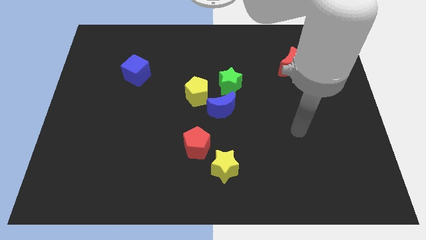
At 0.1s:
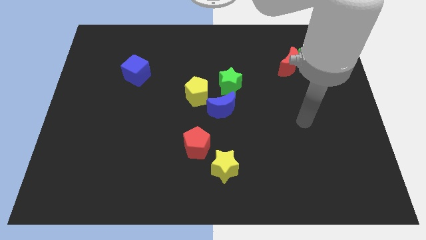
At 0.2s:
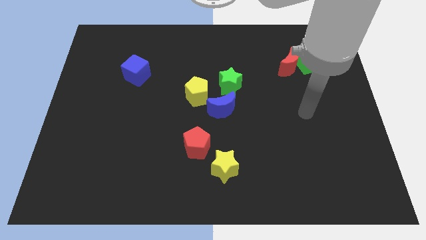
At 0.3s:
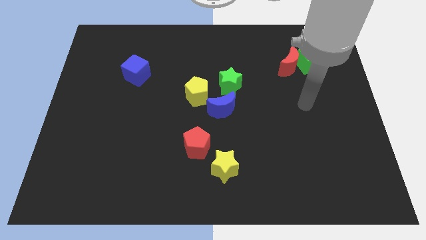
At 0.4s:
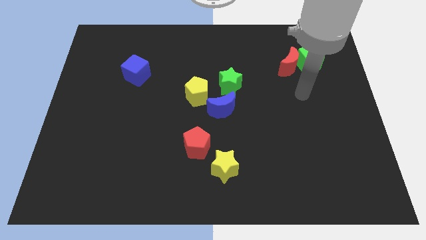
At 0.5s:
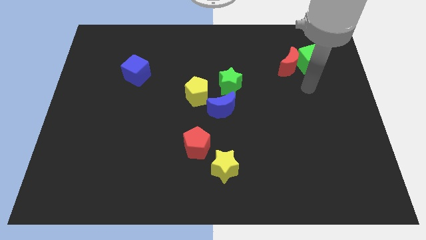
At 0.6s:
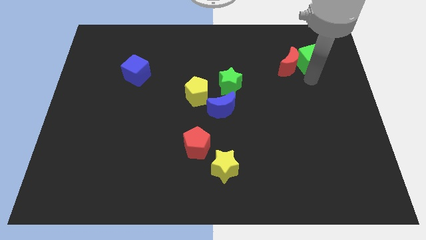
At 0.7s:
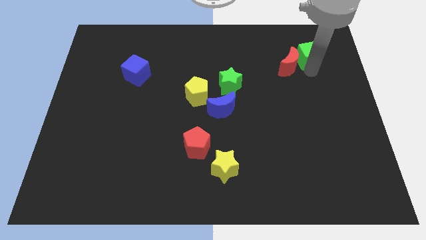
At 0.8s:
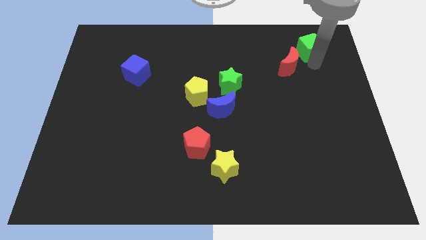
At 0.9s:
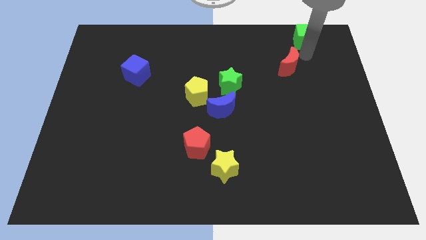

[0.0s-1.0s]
pull the red moon apart from the green cube

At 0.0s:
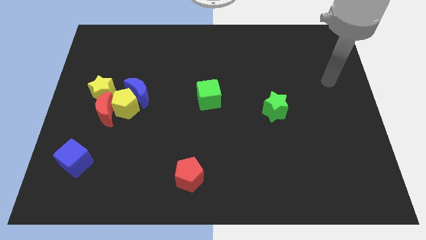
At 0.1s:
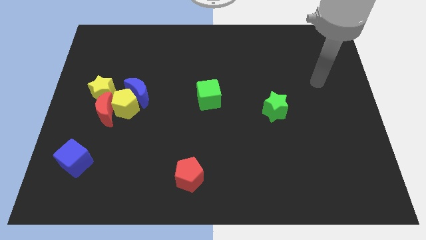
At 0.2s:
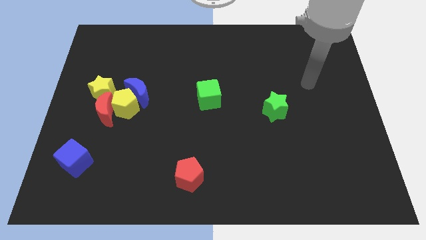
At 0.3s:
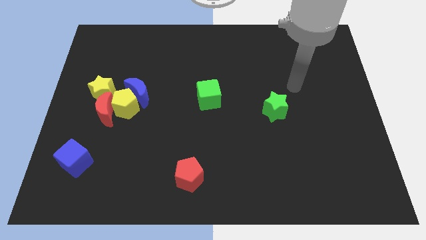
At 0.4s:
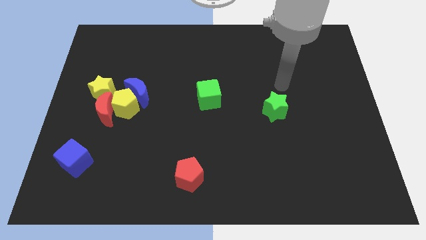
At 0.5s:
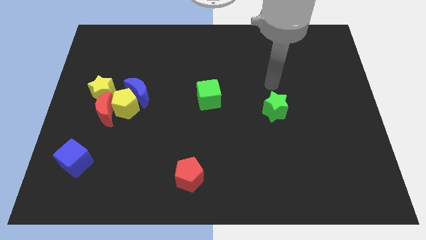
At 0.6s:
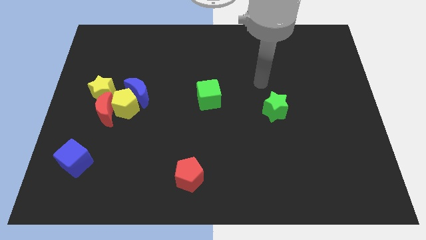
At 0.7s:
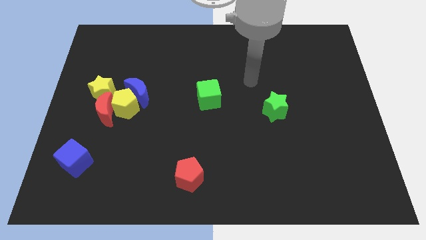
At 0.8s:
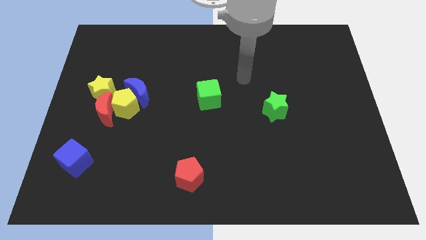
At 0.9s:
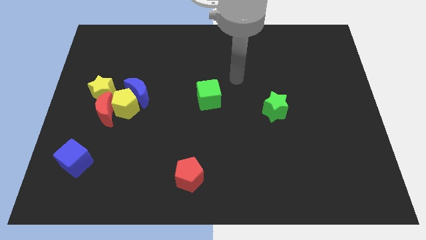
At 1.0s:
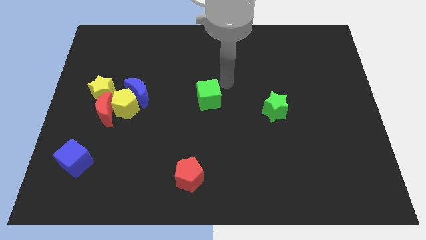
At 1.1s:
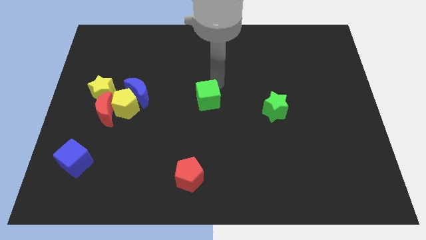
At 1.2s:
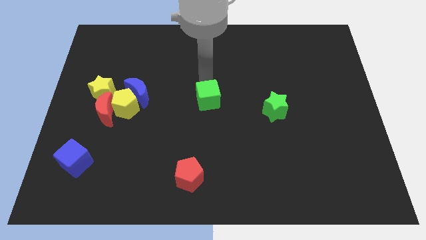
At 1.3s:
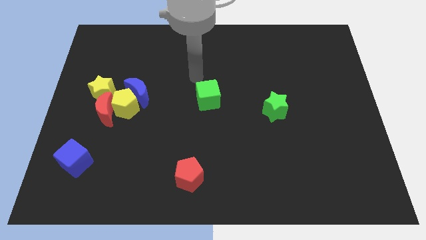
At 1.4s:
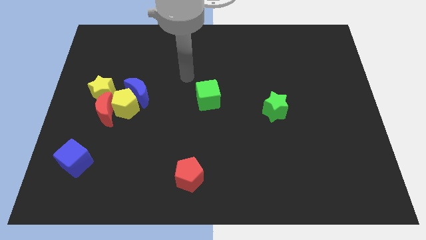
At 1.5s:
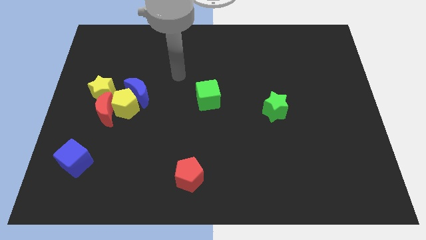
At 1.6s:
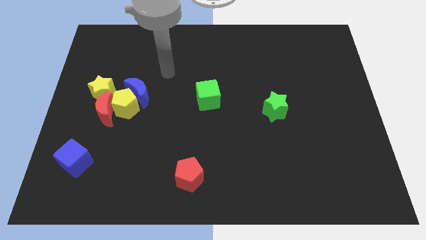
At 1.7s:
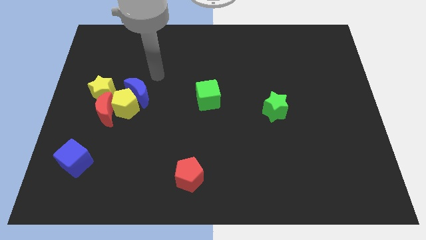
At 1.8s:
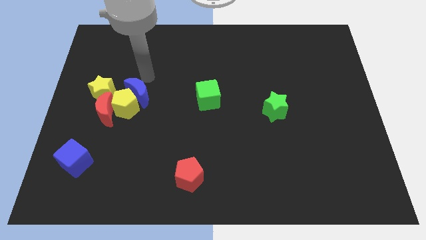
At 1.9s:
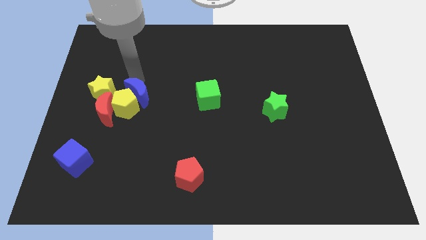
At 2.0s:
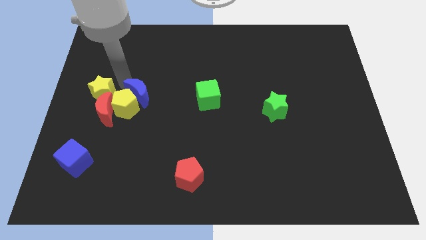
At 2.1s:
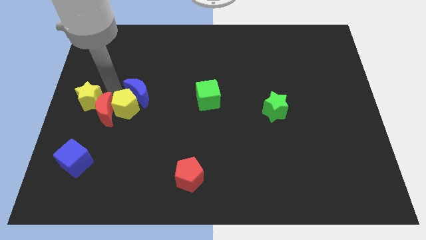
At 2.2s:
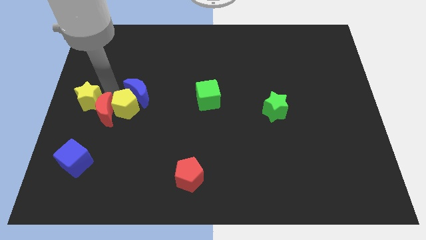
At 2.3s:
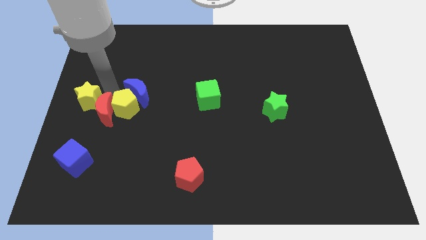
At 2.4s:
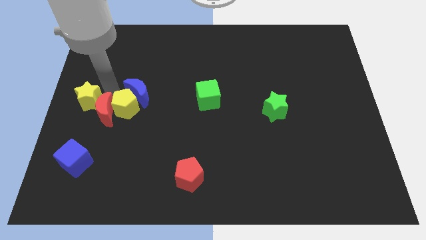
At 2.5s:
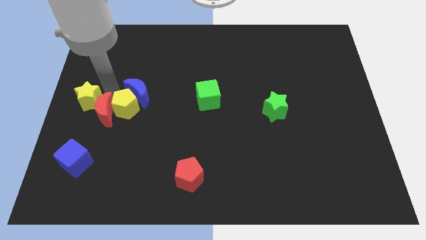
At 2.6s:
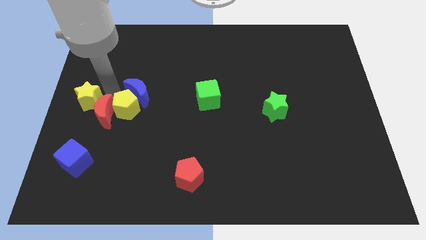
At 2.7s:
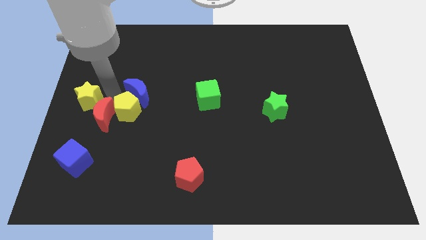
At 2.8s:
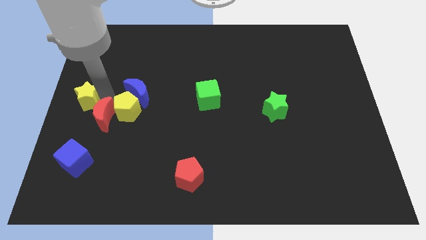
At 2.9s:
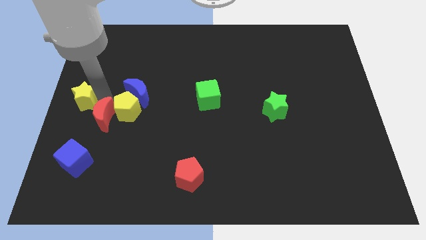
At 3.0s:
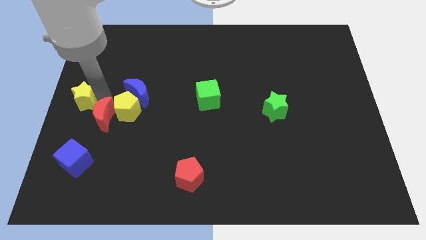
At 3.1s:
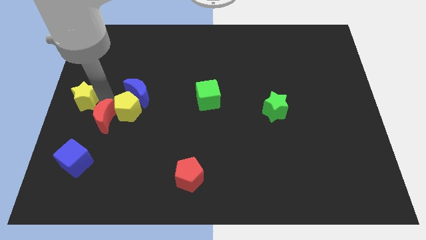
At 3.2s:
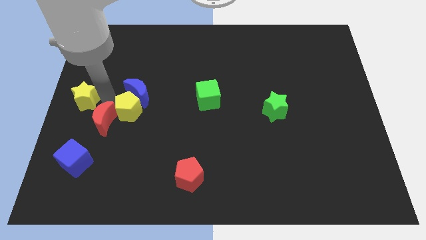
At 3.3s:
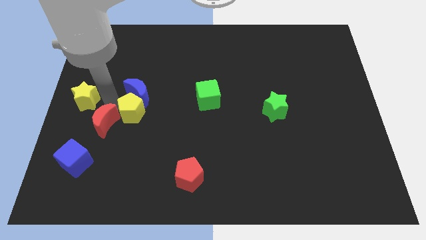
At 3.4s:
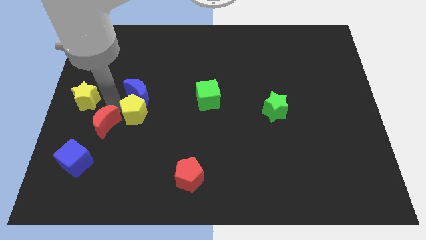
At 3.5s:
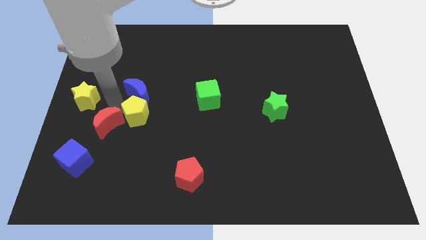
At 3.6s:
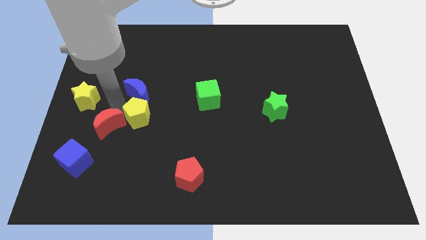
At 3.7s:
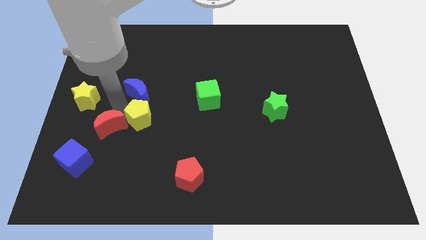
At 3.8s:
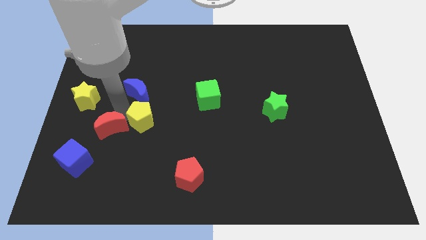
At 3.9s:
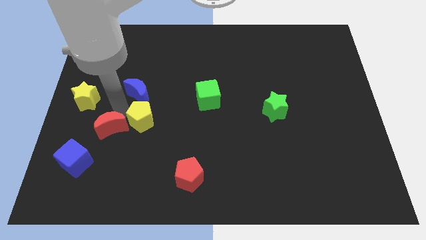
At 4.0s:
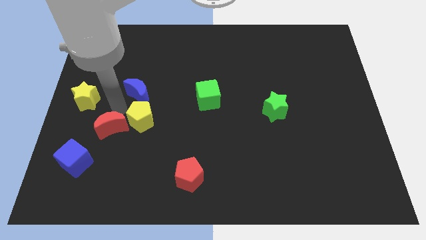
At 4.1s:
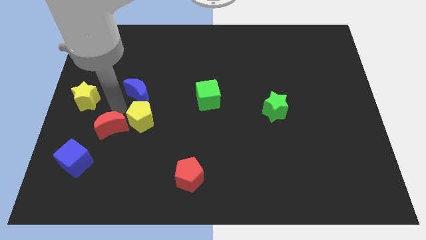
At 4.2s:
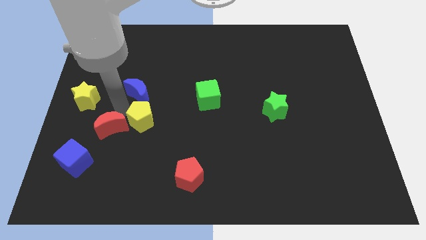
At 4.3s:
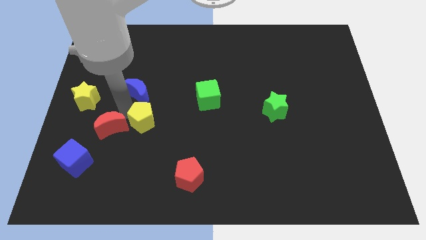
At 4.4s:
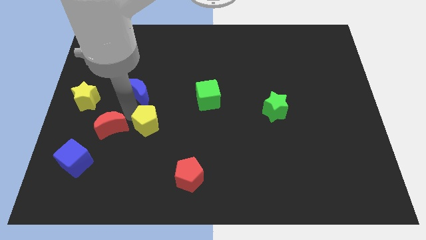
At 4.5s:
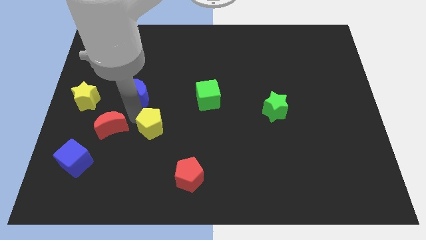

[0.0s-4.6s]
separate the yellow pentagon from the group

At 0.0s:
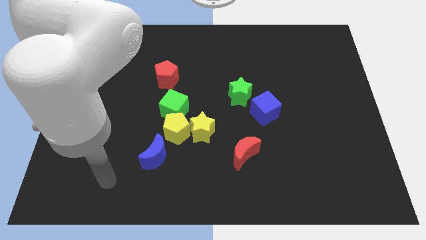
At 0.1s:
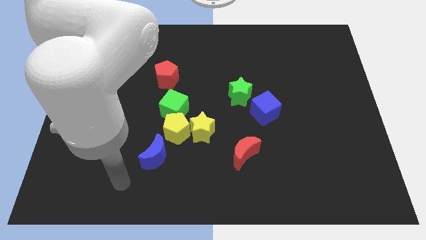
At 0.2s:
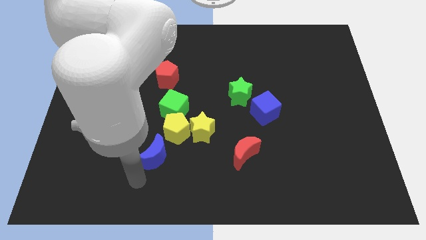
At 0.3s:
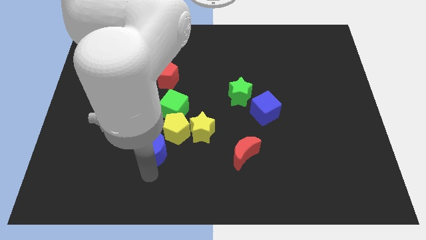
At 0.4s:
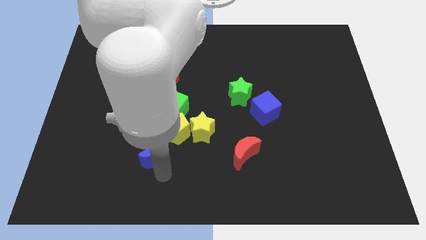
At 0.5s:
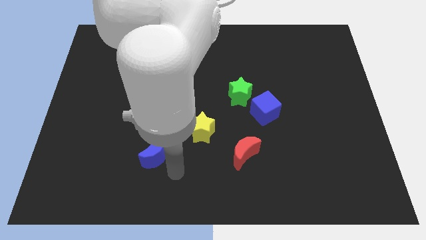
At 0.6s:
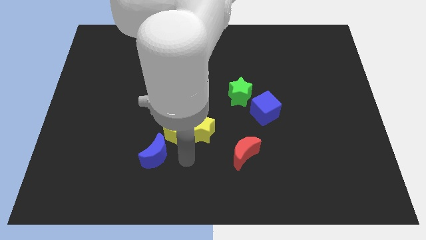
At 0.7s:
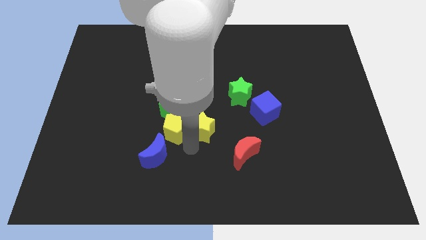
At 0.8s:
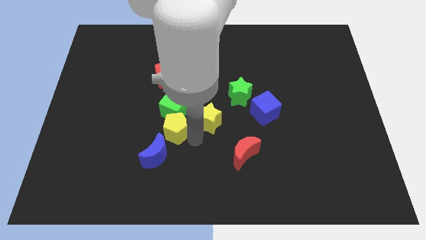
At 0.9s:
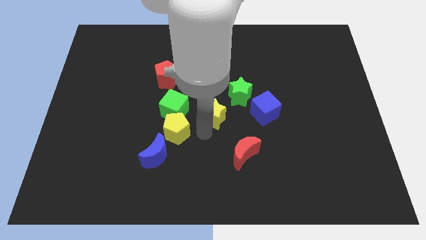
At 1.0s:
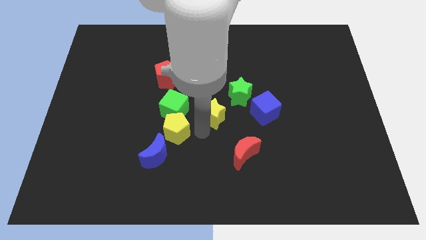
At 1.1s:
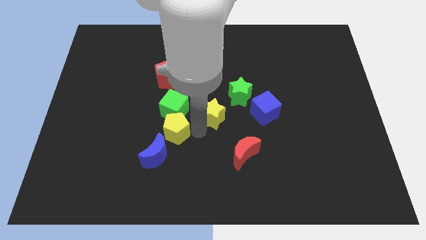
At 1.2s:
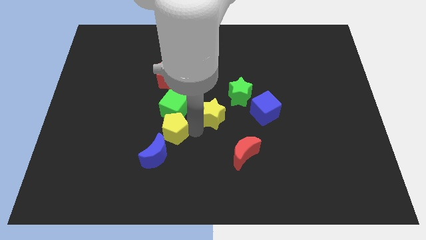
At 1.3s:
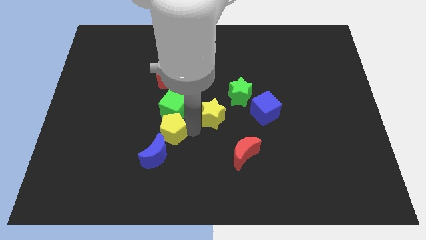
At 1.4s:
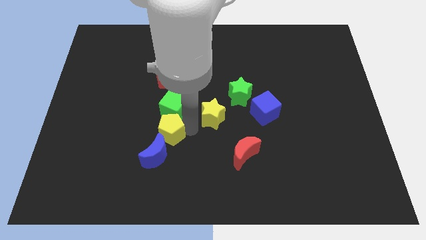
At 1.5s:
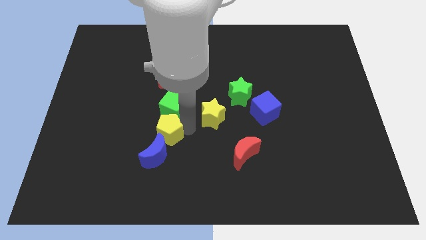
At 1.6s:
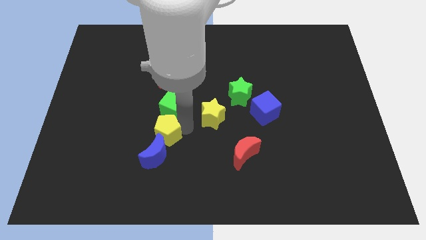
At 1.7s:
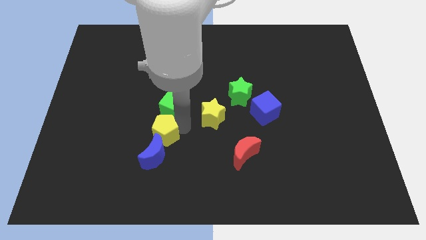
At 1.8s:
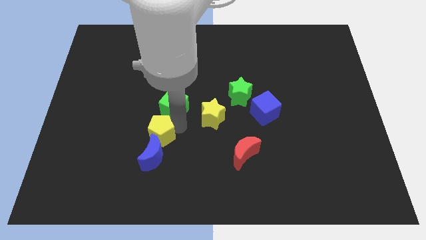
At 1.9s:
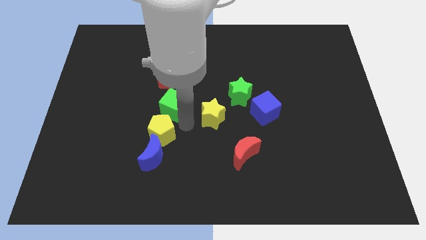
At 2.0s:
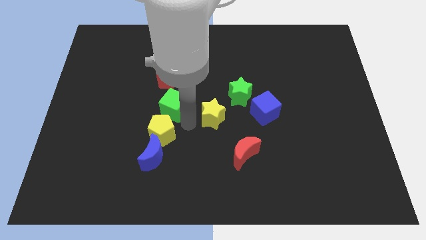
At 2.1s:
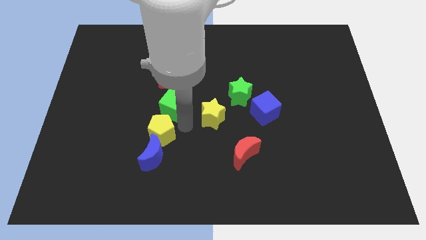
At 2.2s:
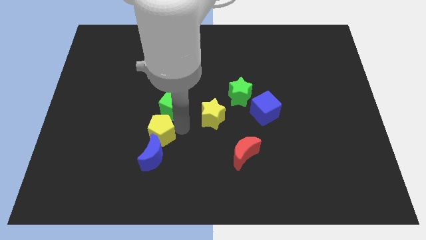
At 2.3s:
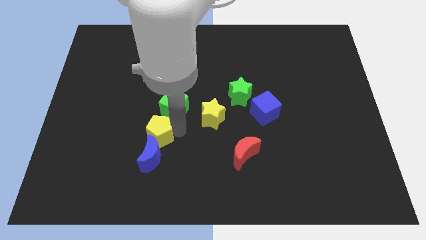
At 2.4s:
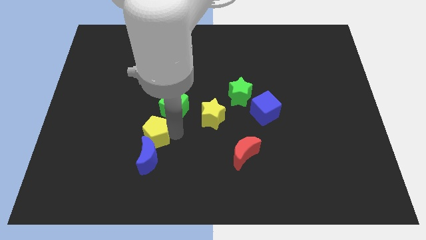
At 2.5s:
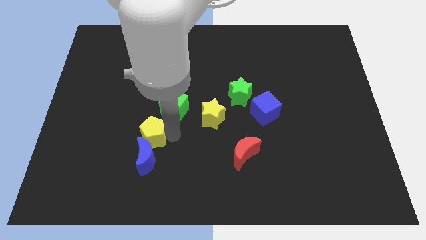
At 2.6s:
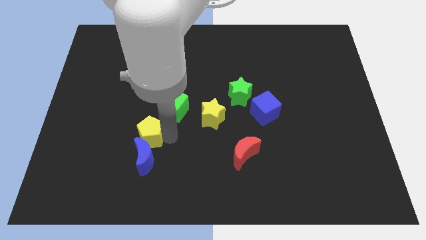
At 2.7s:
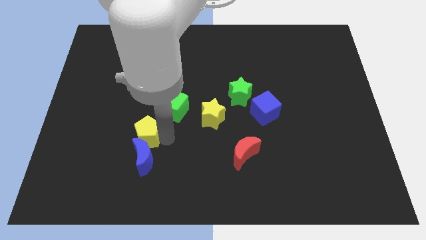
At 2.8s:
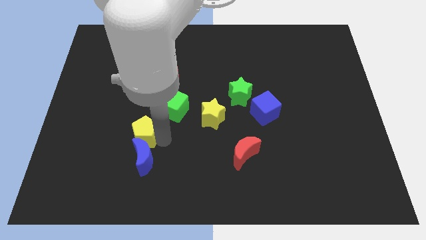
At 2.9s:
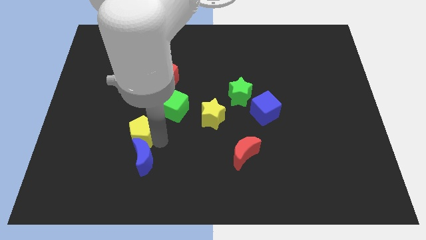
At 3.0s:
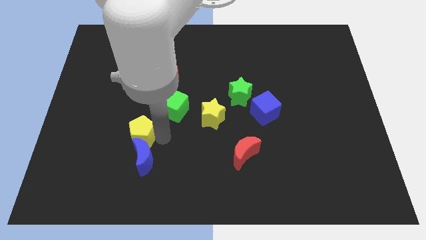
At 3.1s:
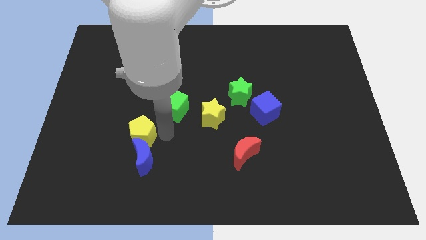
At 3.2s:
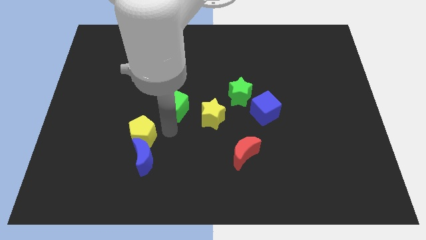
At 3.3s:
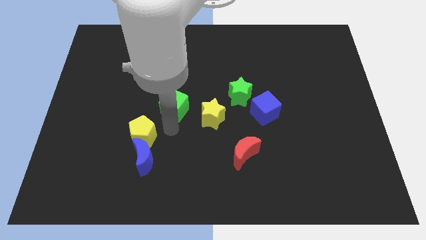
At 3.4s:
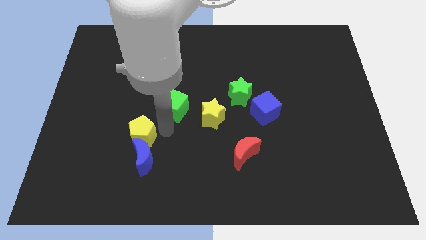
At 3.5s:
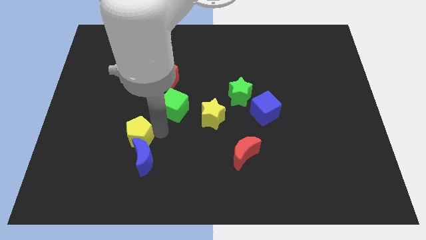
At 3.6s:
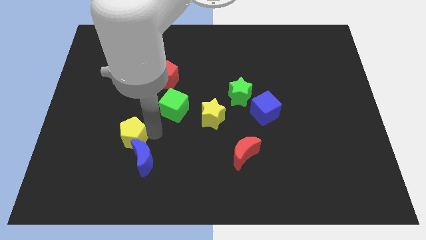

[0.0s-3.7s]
pull the yellow pentagon apart from the group of blocks

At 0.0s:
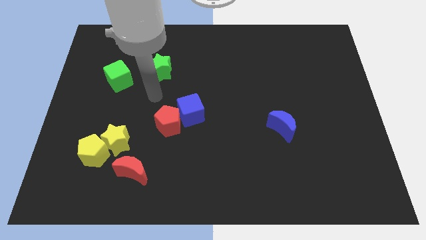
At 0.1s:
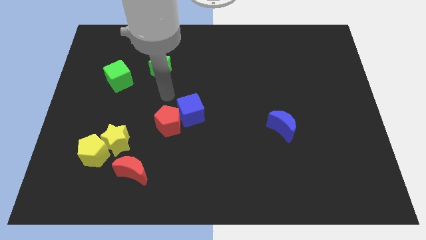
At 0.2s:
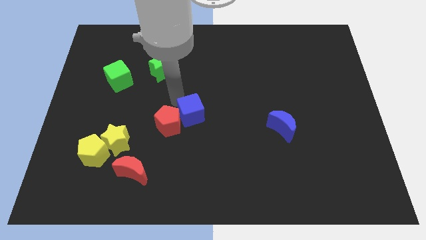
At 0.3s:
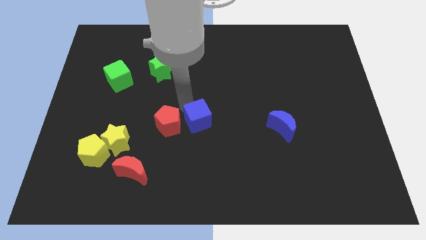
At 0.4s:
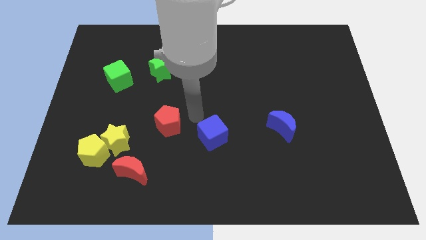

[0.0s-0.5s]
move the red pentagon away from the blue cube
